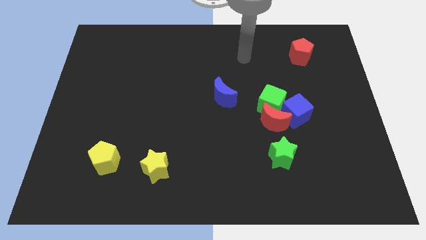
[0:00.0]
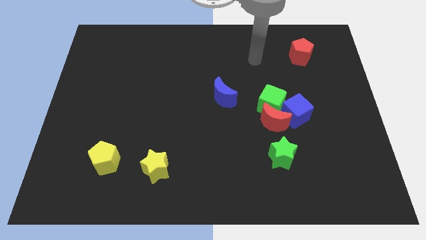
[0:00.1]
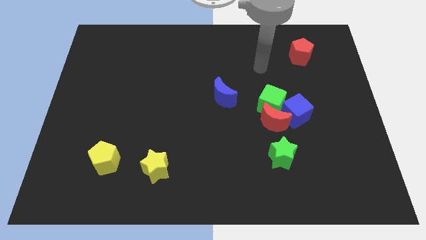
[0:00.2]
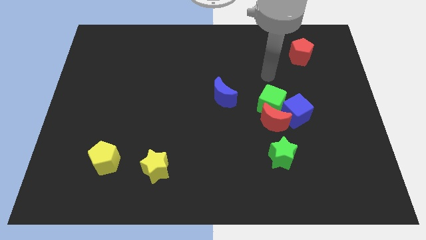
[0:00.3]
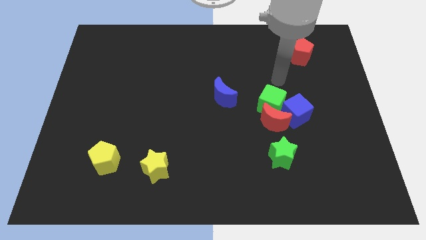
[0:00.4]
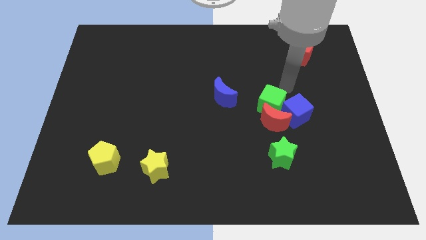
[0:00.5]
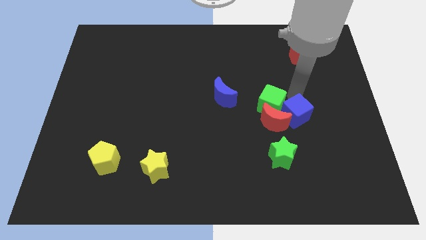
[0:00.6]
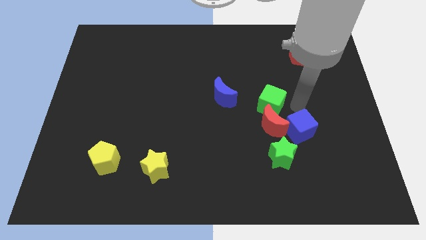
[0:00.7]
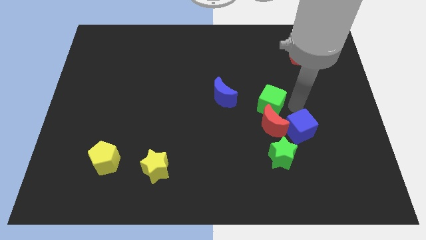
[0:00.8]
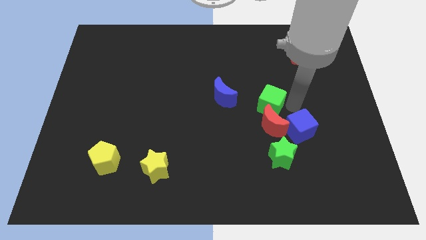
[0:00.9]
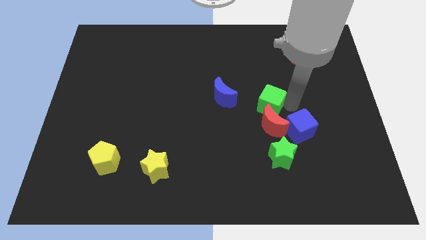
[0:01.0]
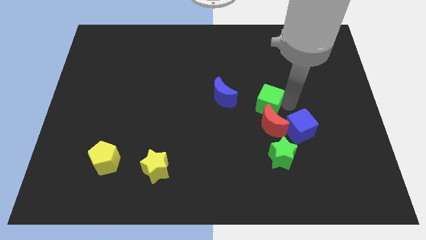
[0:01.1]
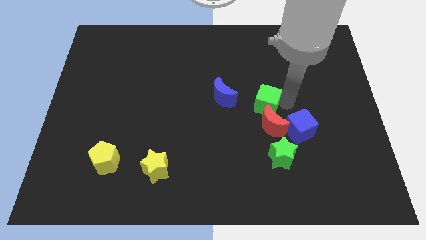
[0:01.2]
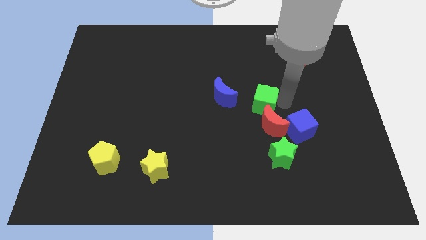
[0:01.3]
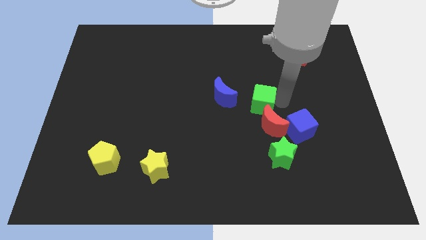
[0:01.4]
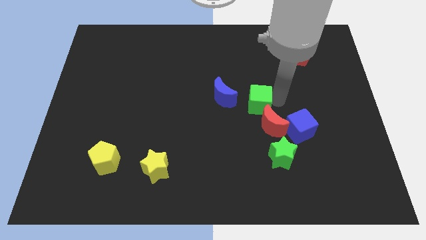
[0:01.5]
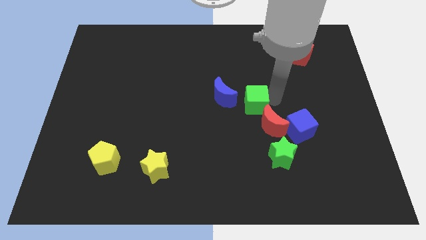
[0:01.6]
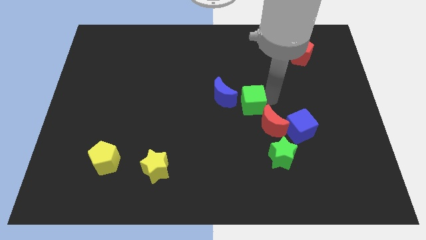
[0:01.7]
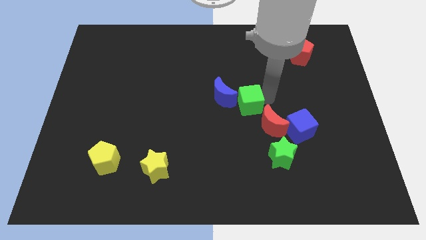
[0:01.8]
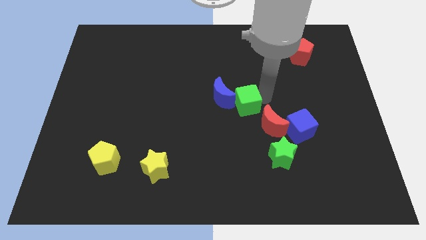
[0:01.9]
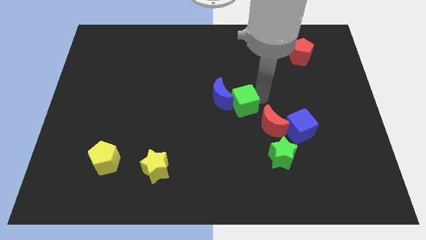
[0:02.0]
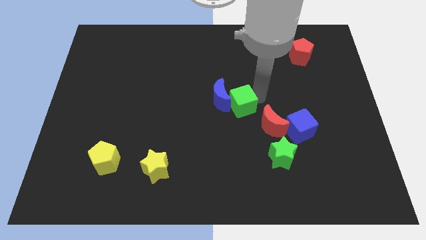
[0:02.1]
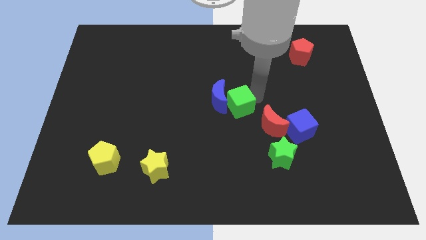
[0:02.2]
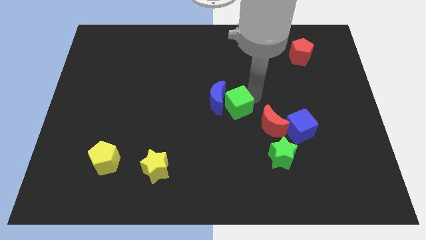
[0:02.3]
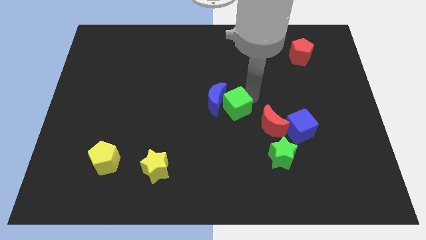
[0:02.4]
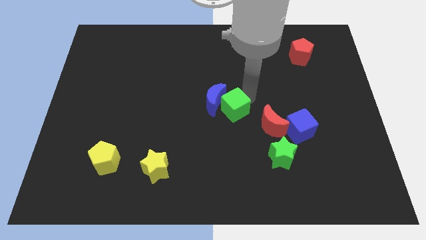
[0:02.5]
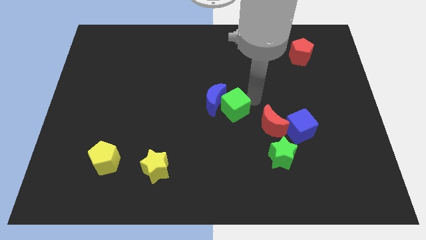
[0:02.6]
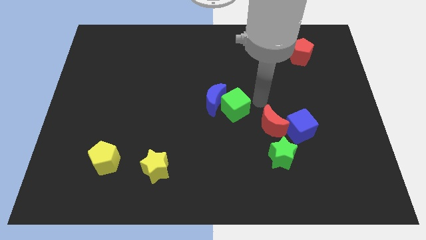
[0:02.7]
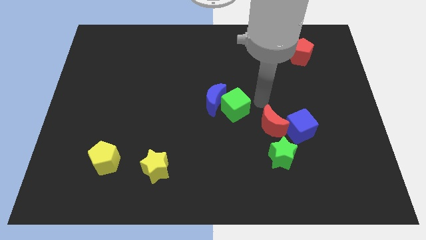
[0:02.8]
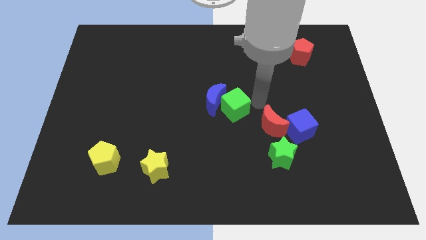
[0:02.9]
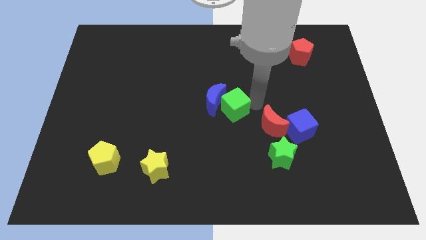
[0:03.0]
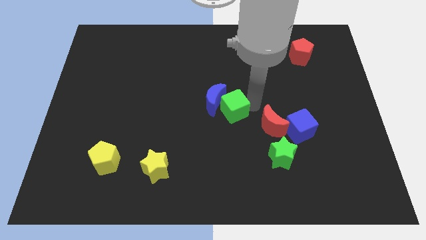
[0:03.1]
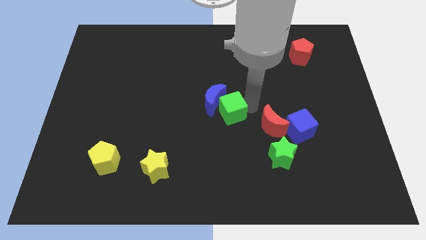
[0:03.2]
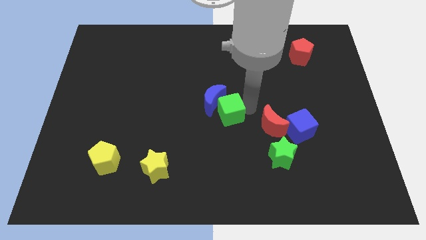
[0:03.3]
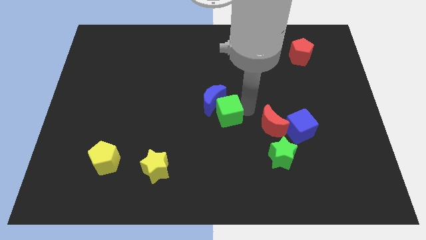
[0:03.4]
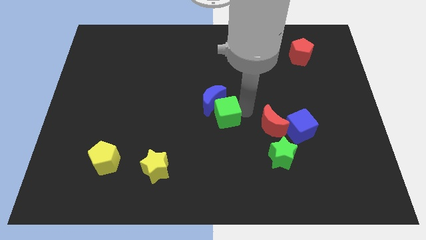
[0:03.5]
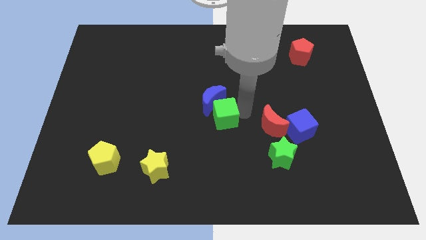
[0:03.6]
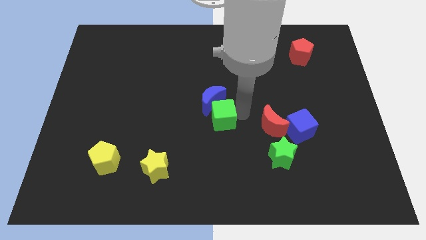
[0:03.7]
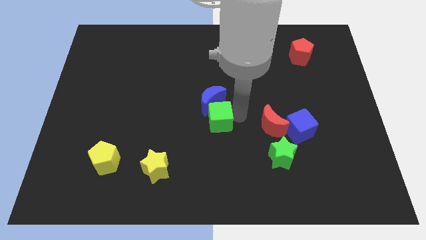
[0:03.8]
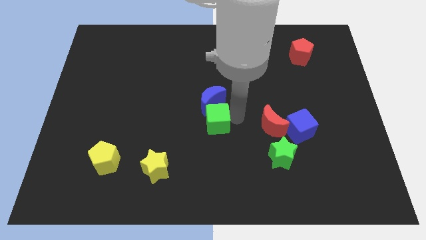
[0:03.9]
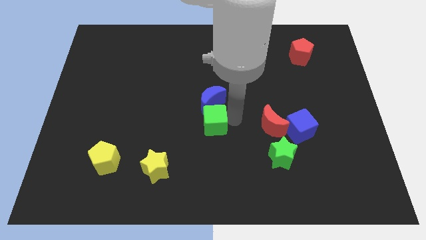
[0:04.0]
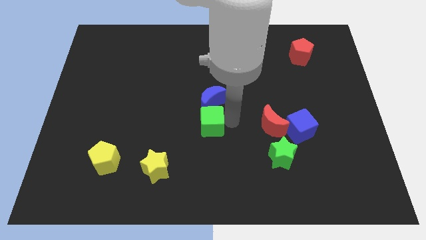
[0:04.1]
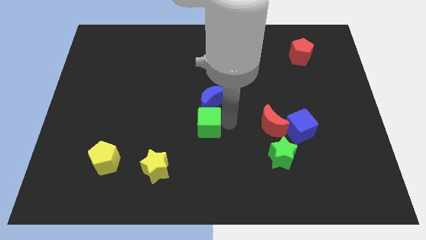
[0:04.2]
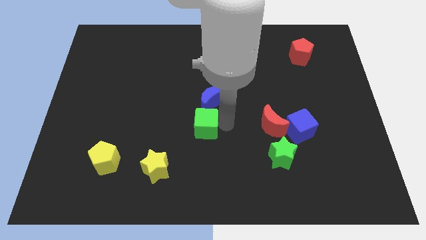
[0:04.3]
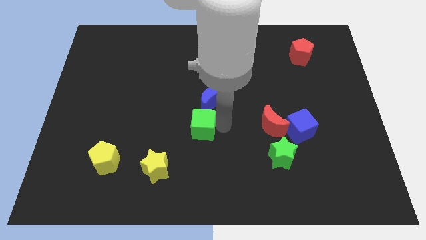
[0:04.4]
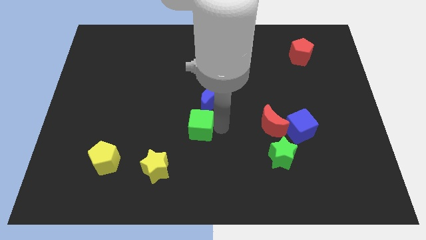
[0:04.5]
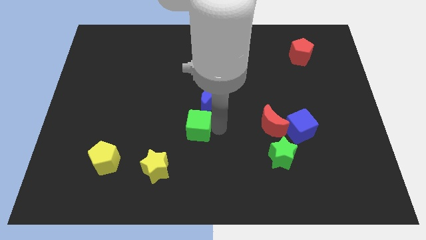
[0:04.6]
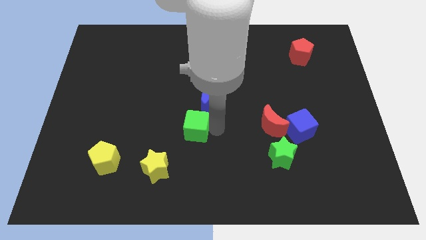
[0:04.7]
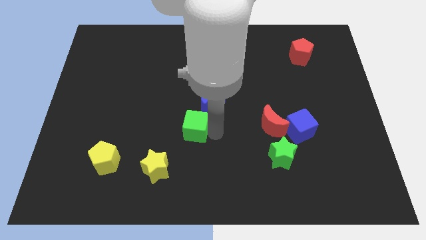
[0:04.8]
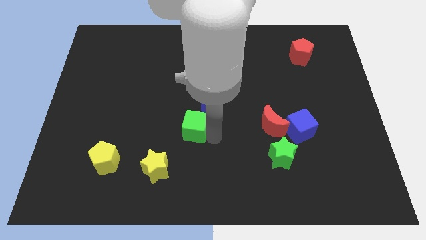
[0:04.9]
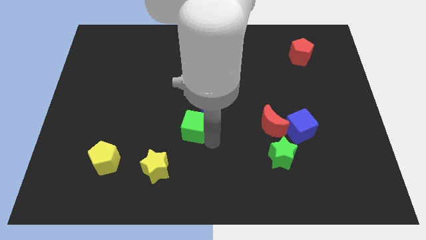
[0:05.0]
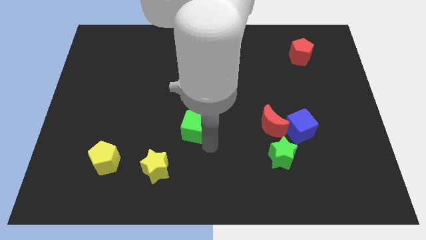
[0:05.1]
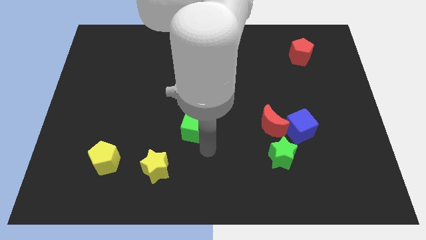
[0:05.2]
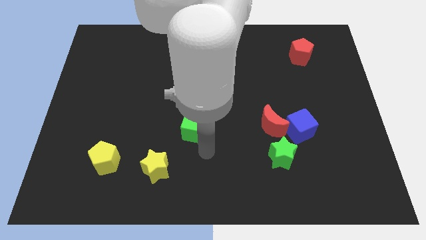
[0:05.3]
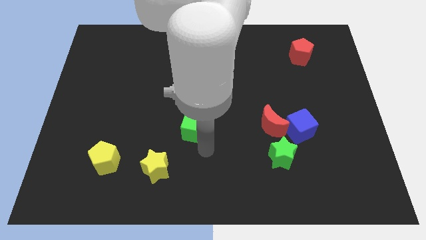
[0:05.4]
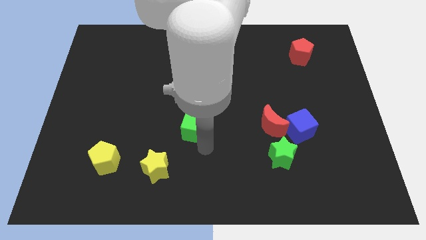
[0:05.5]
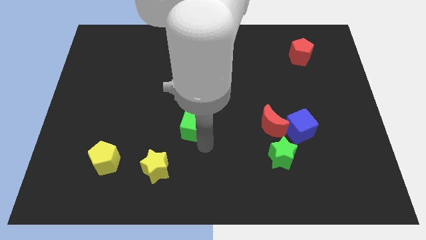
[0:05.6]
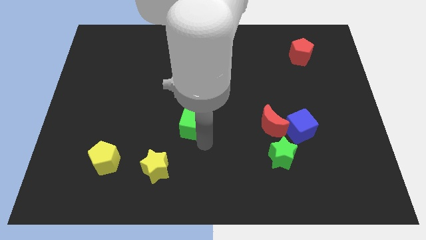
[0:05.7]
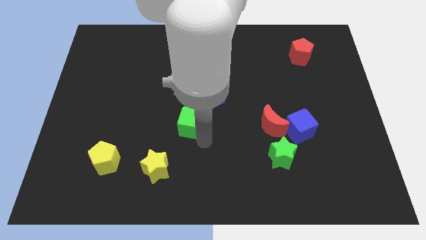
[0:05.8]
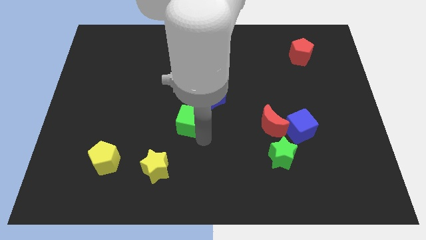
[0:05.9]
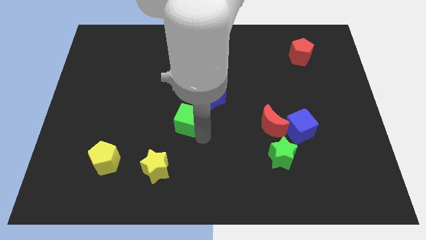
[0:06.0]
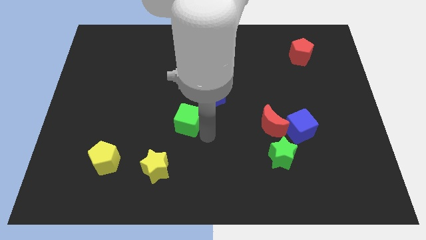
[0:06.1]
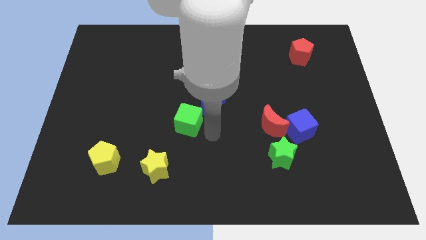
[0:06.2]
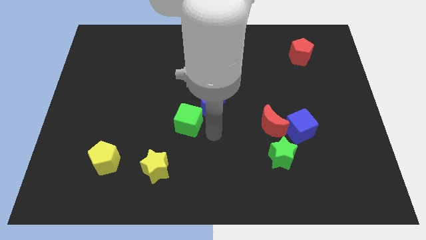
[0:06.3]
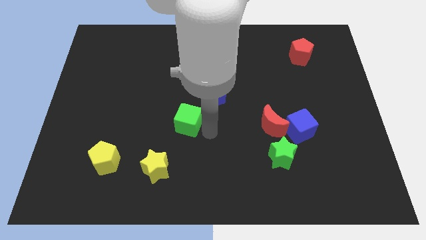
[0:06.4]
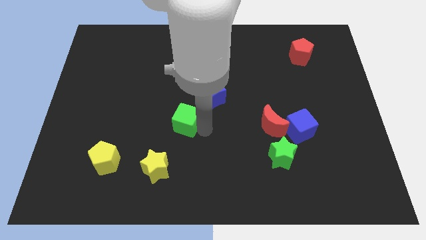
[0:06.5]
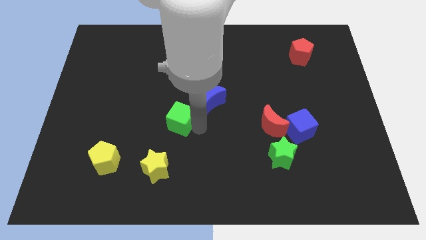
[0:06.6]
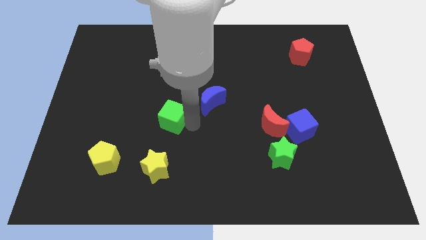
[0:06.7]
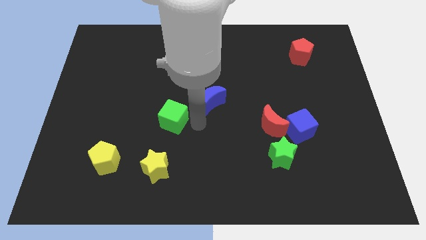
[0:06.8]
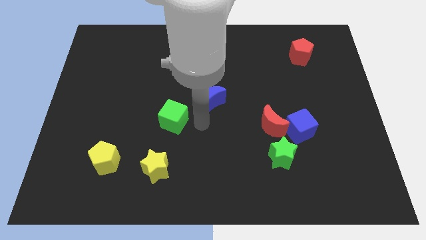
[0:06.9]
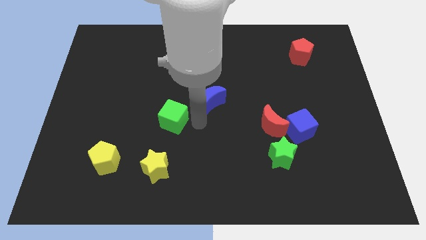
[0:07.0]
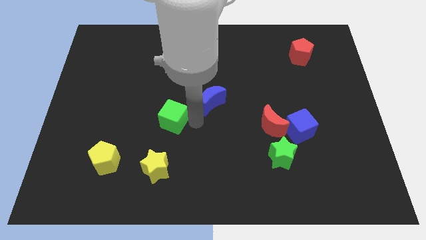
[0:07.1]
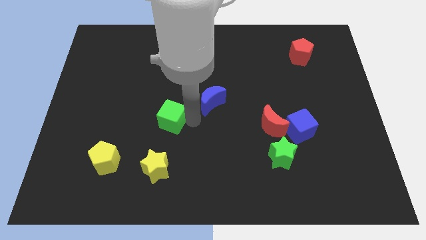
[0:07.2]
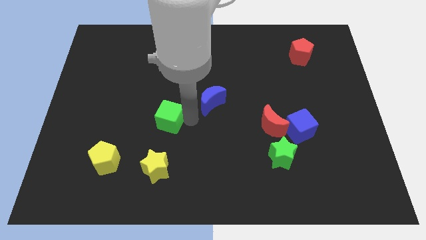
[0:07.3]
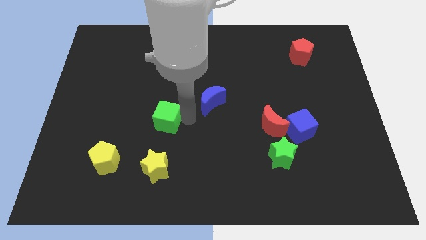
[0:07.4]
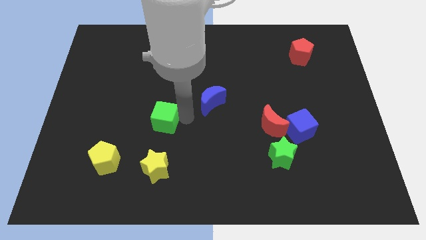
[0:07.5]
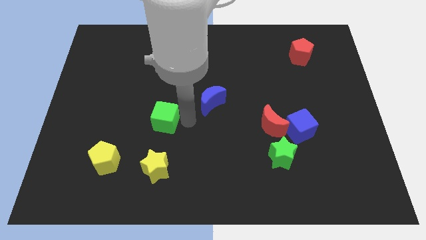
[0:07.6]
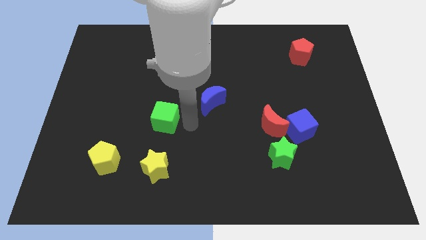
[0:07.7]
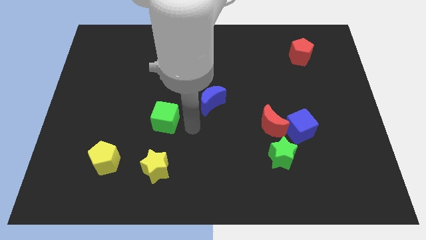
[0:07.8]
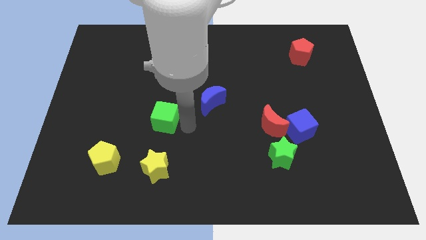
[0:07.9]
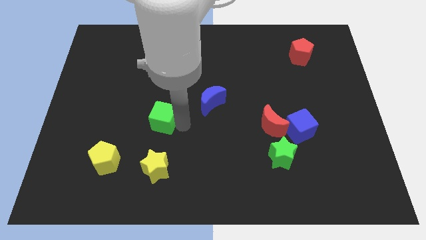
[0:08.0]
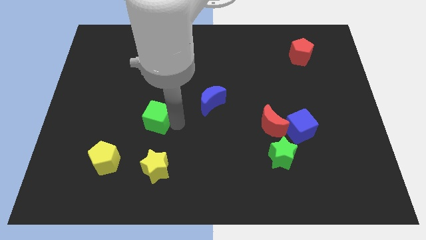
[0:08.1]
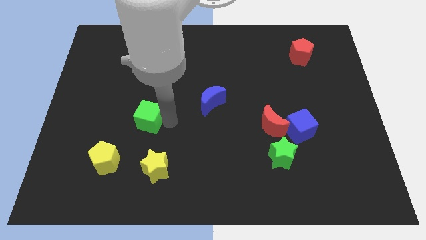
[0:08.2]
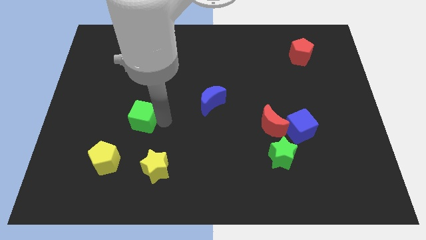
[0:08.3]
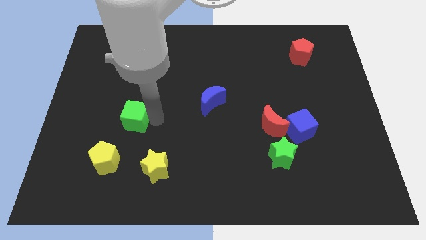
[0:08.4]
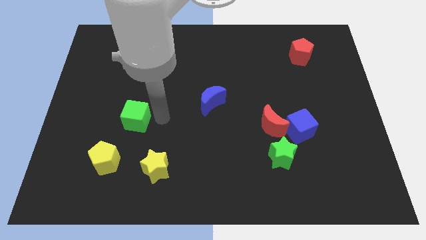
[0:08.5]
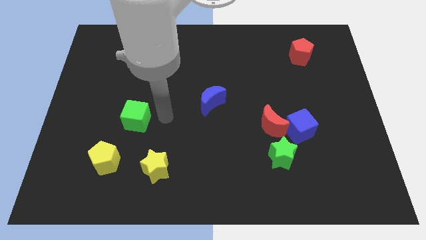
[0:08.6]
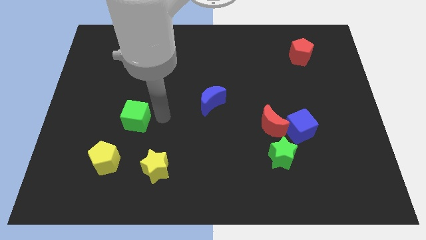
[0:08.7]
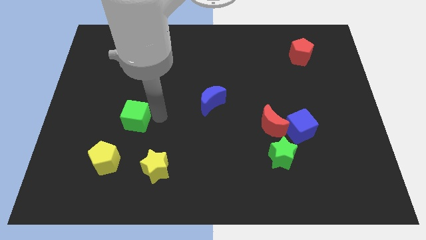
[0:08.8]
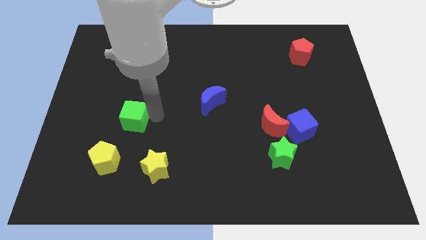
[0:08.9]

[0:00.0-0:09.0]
slide the green cube to the top of the yellow pentagon
